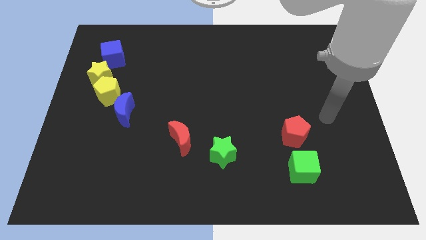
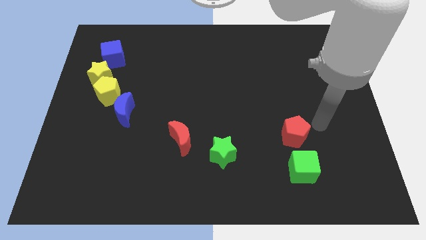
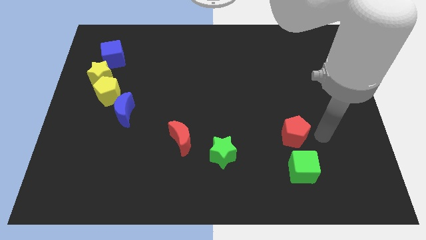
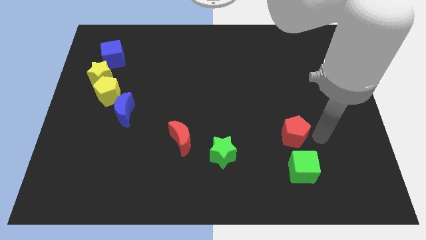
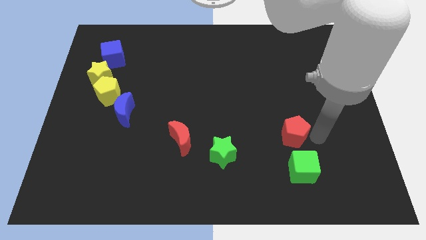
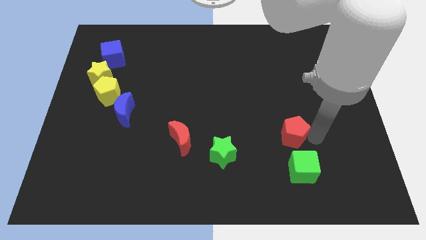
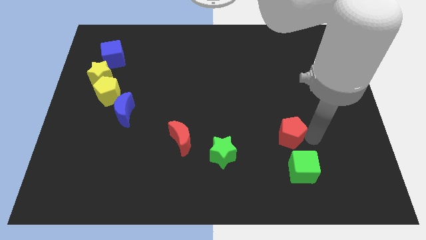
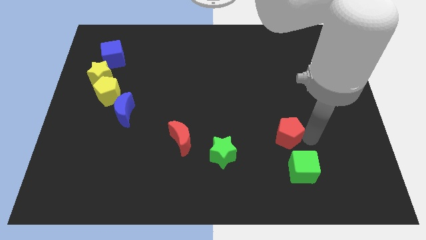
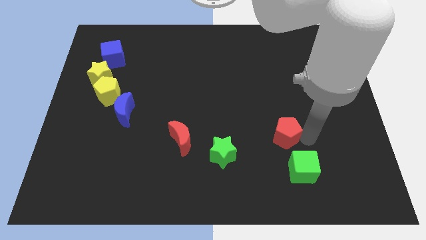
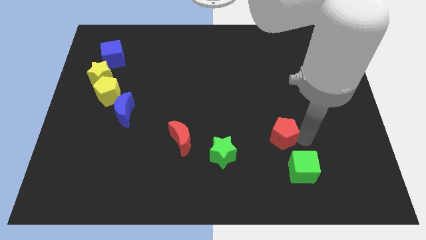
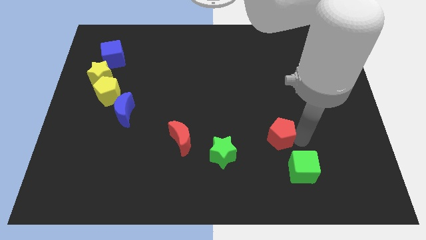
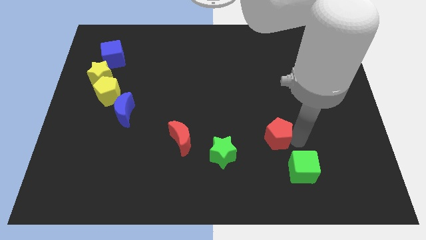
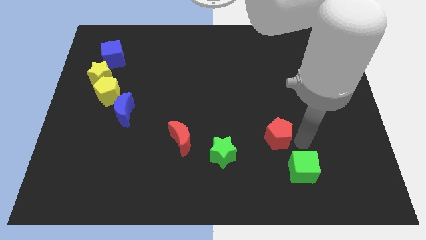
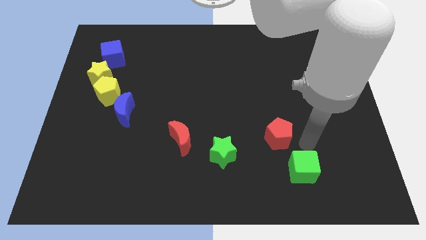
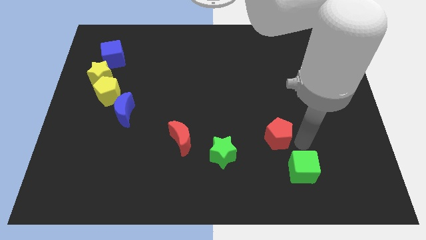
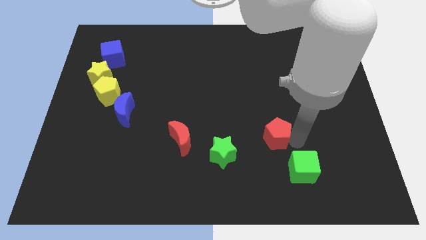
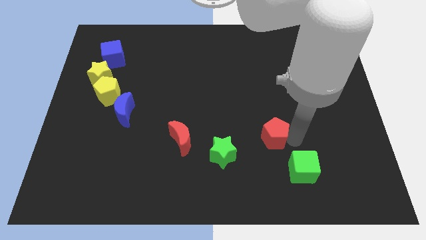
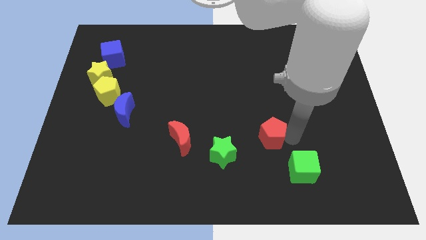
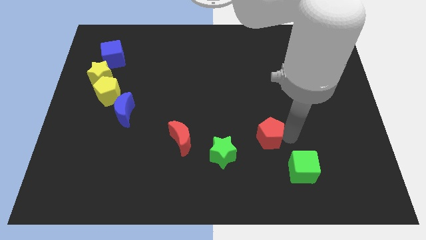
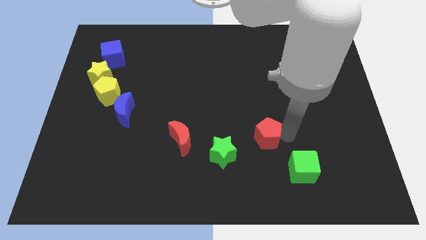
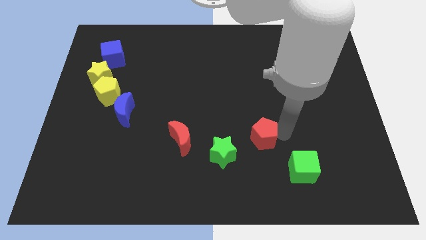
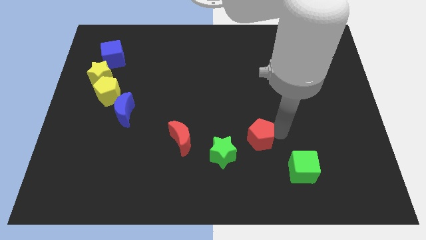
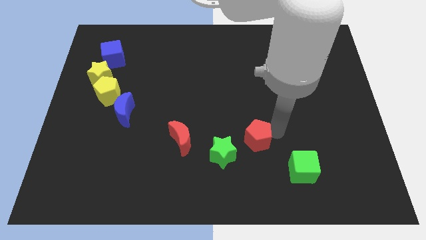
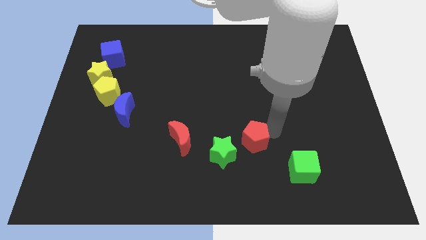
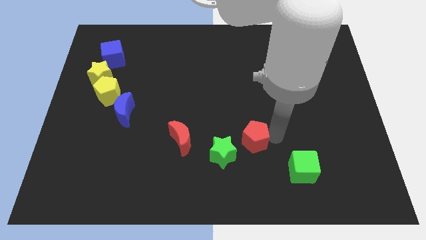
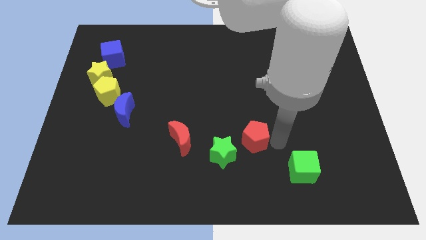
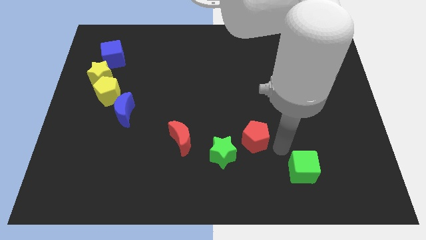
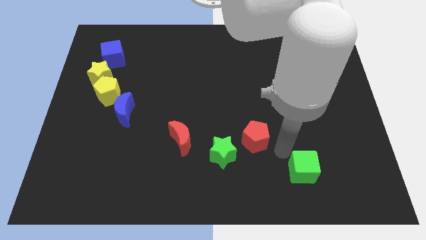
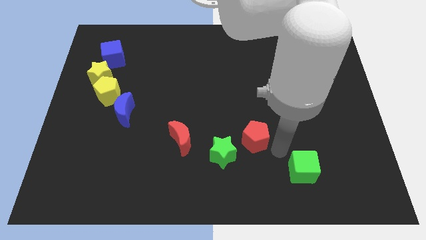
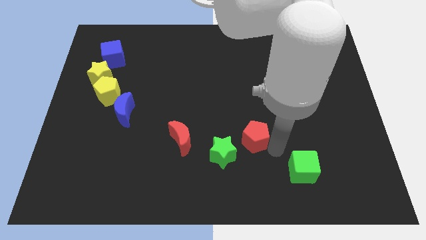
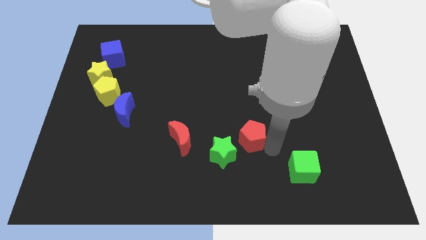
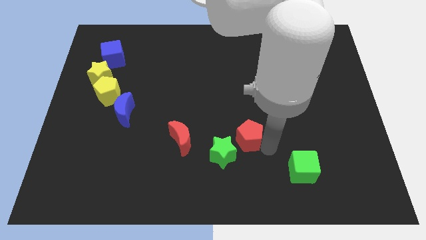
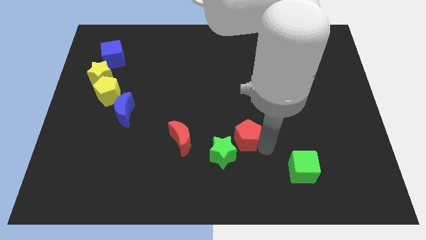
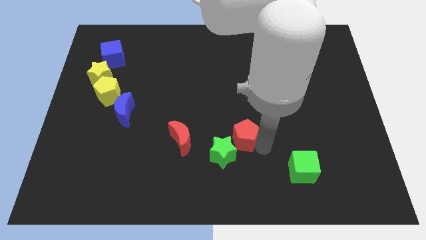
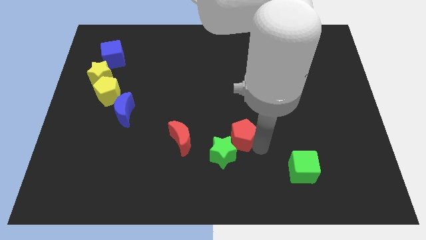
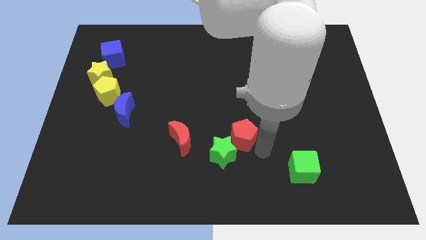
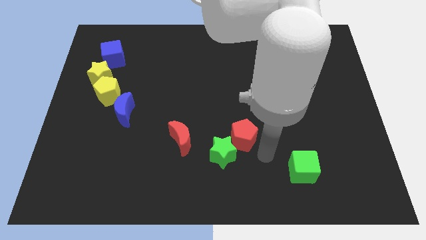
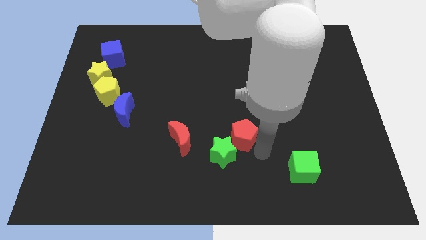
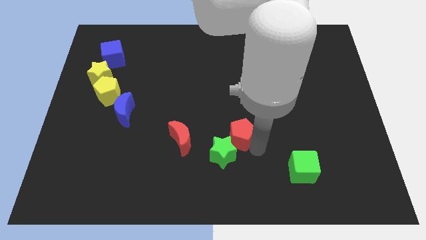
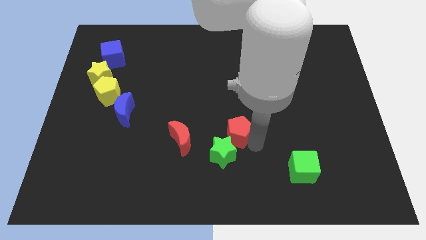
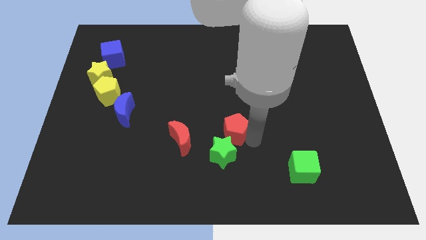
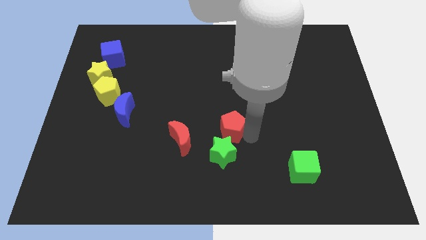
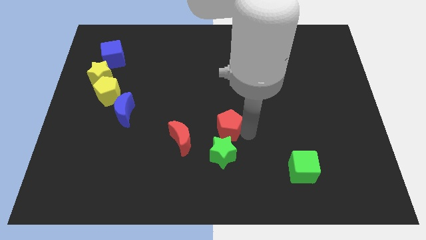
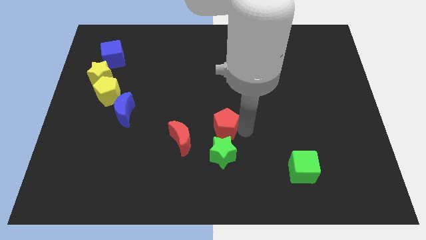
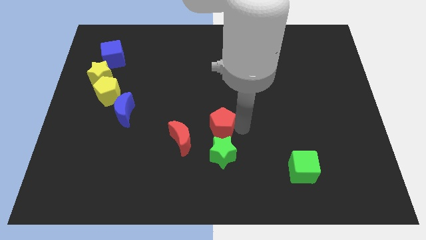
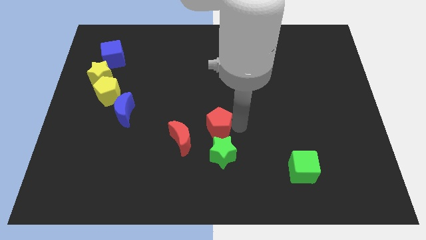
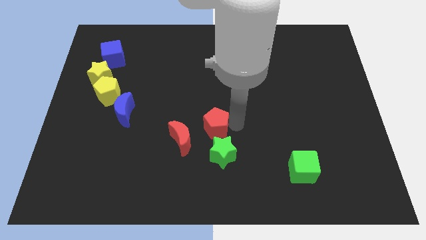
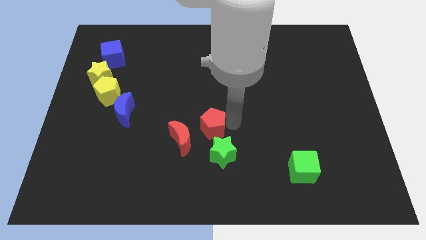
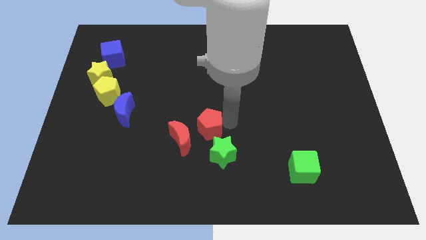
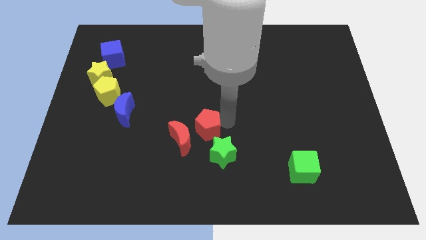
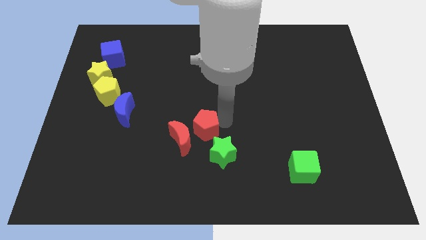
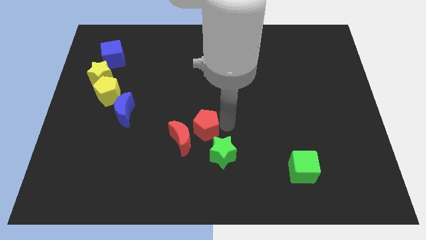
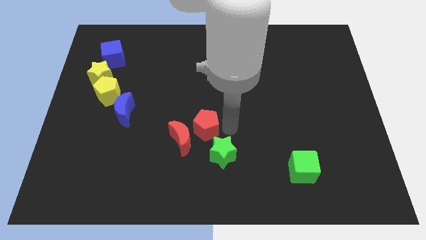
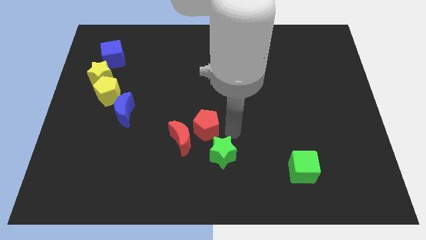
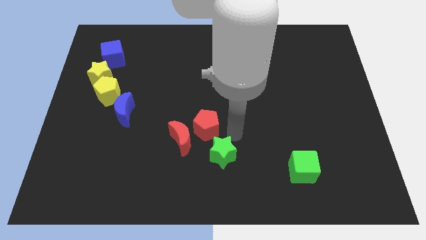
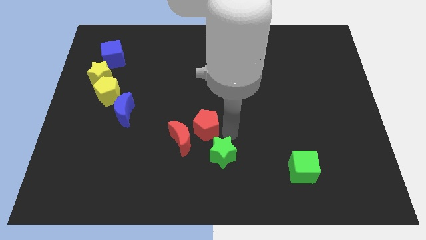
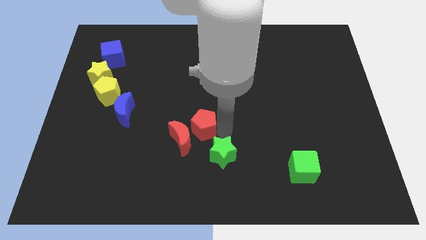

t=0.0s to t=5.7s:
slide the red pentagon to the left

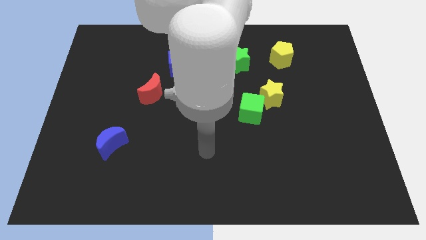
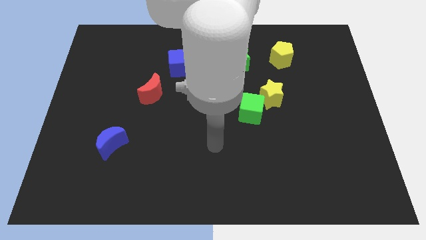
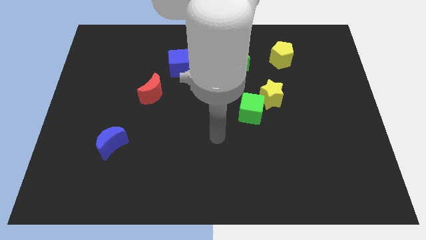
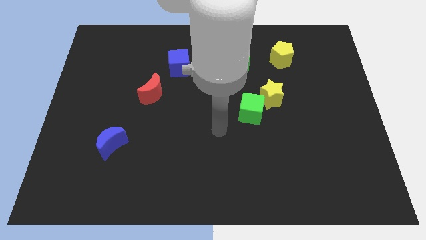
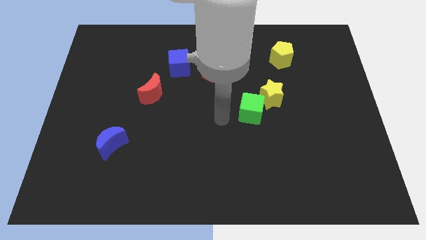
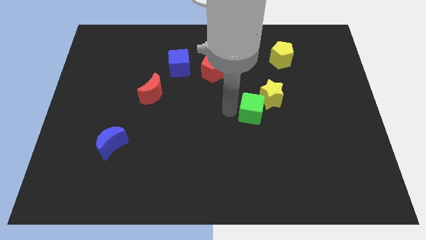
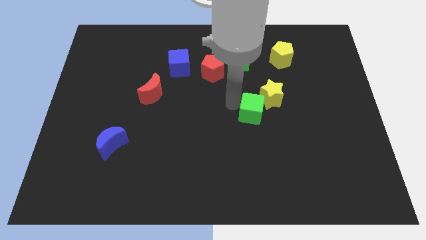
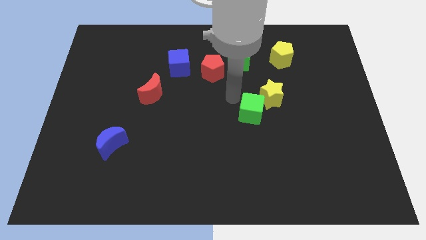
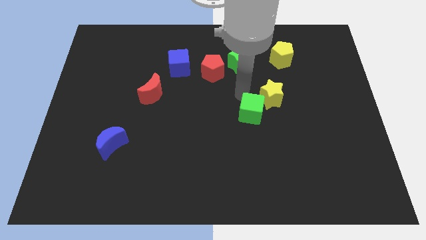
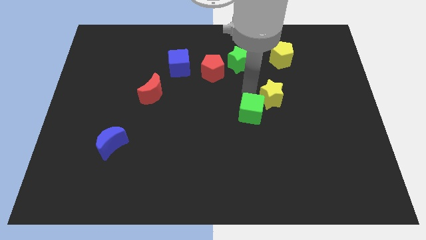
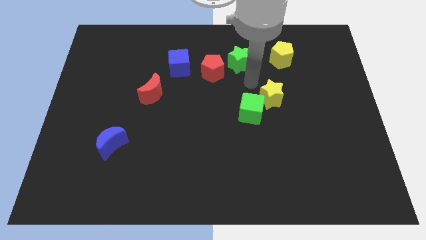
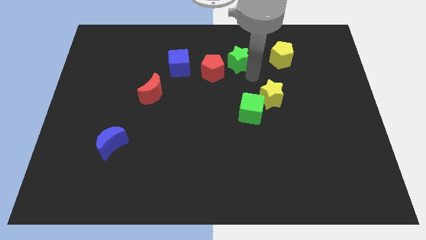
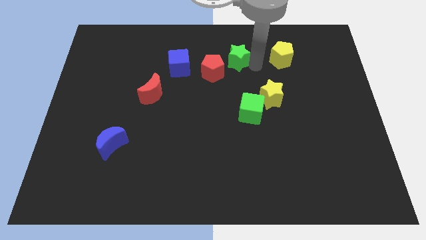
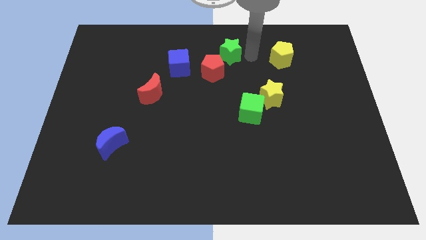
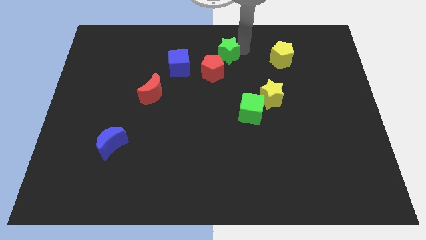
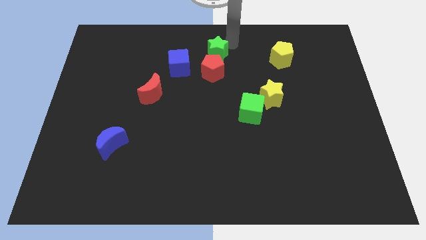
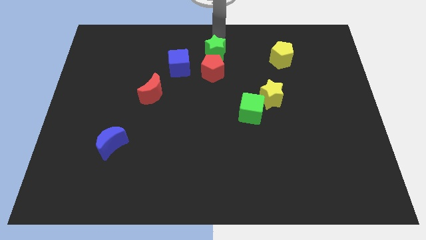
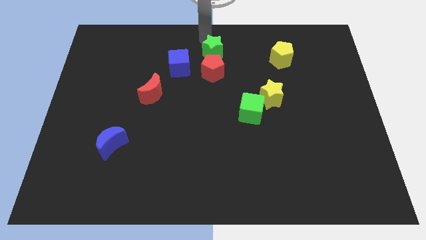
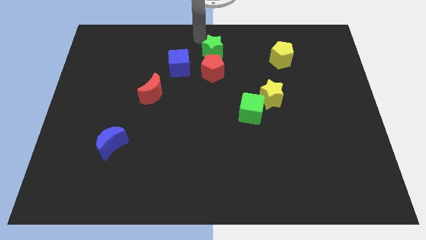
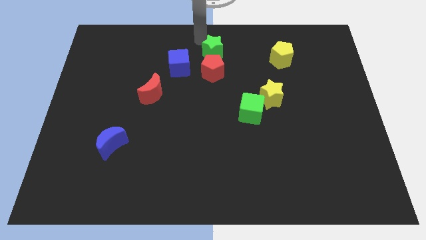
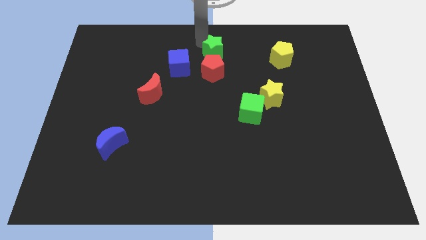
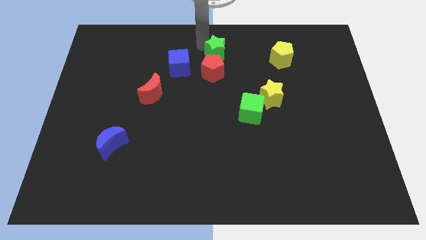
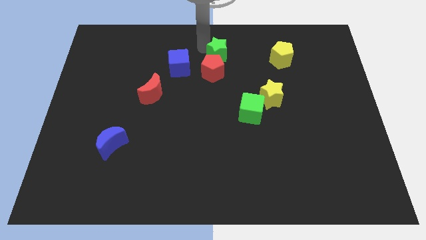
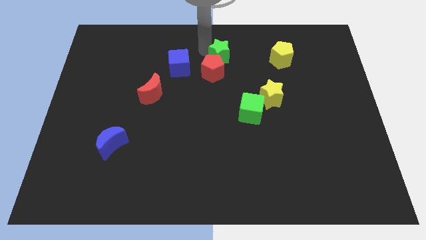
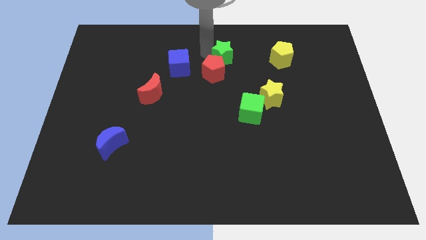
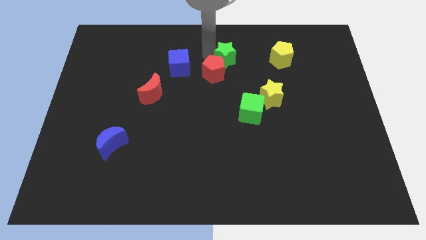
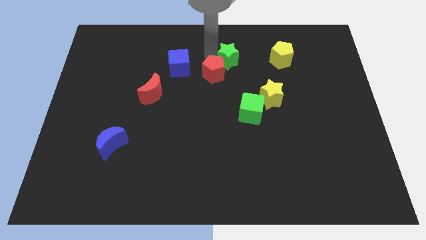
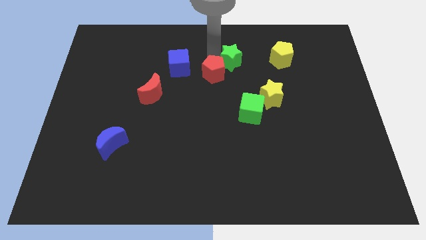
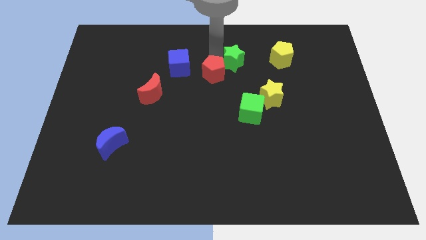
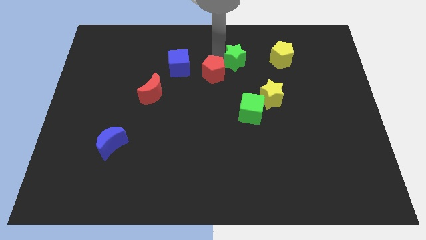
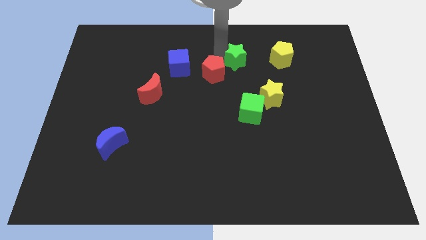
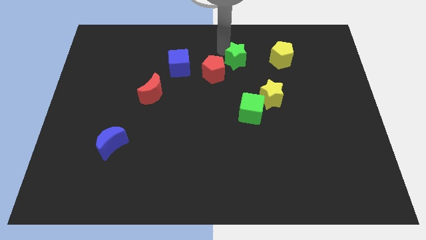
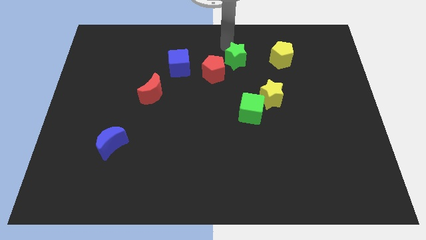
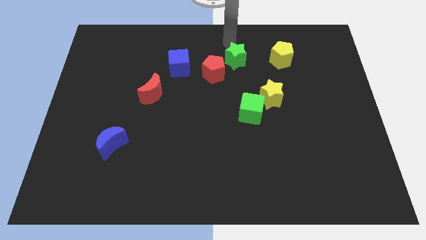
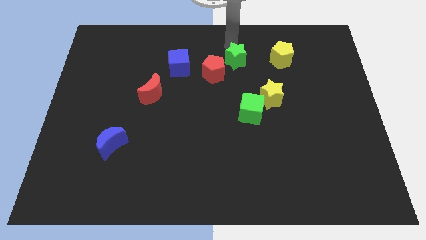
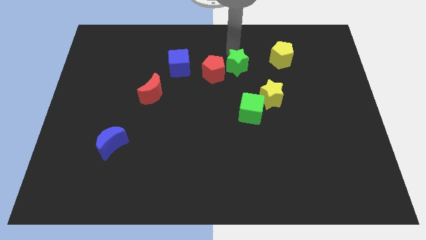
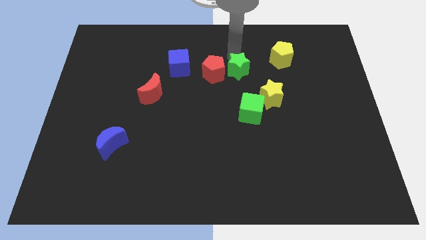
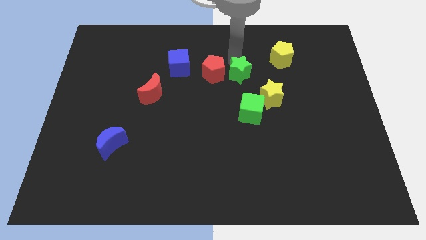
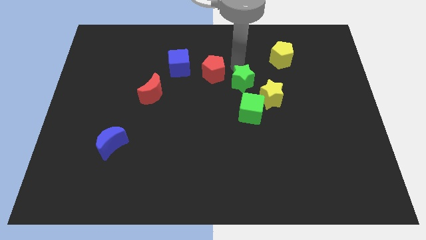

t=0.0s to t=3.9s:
push the green star down slightly
